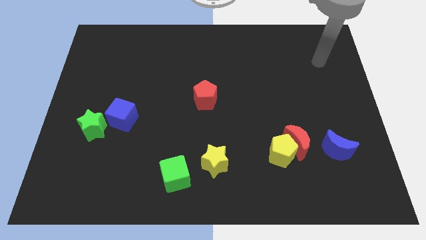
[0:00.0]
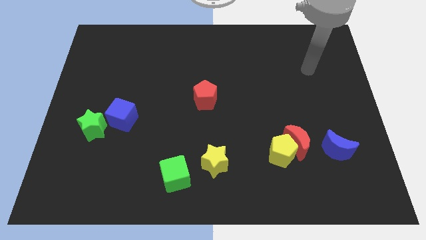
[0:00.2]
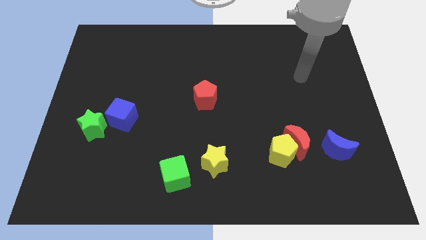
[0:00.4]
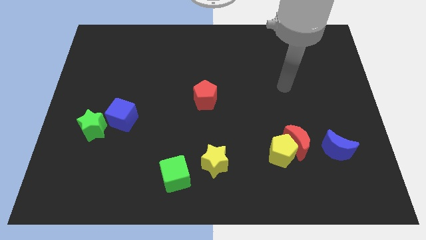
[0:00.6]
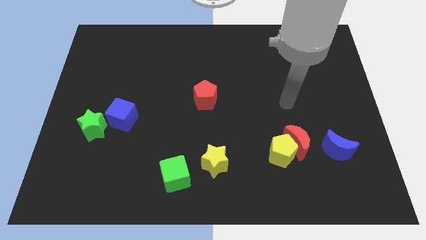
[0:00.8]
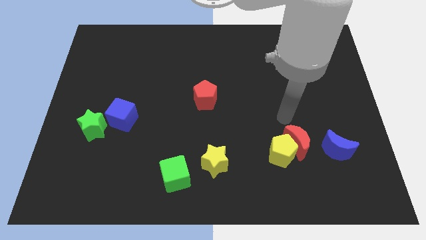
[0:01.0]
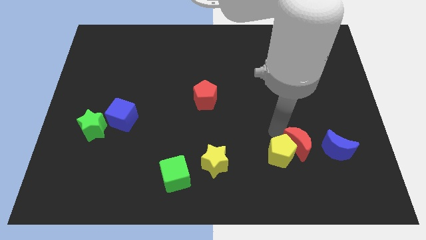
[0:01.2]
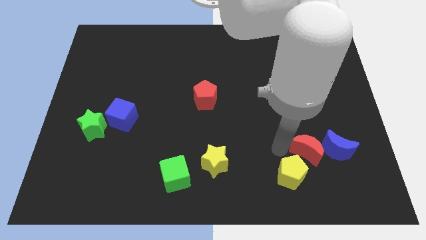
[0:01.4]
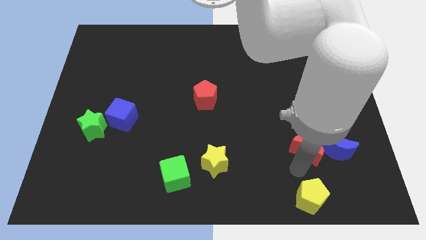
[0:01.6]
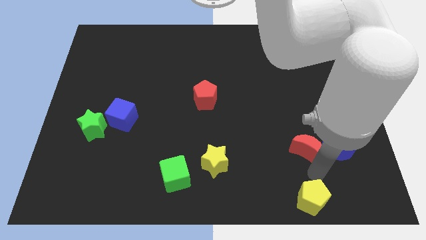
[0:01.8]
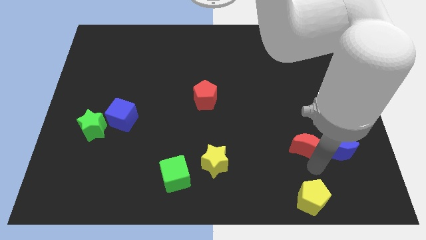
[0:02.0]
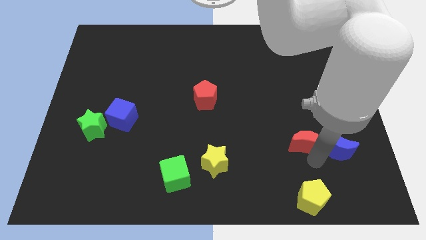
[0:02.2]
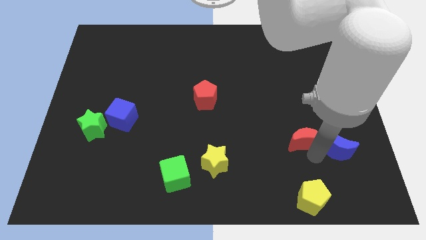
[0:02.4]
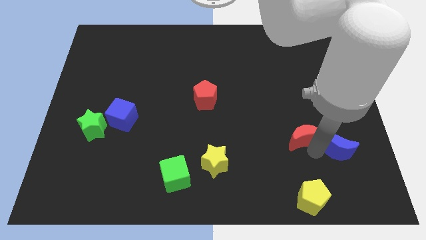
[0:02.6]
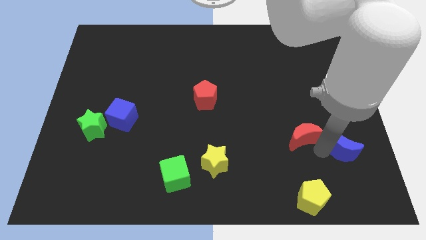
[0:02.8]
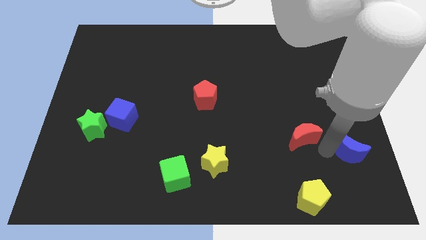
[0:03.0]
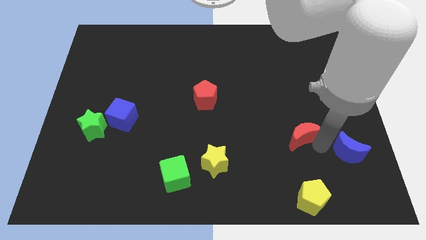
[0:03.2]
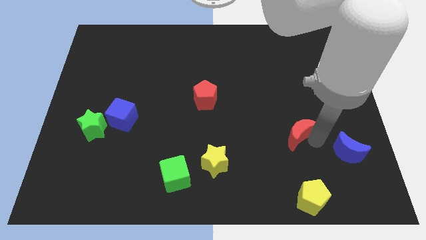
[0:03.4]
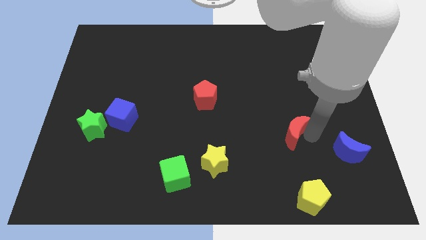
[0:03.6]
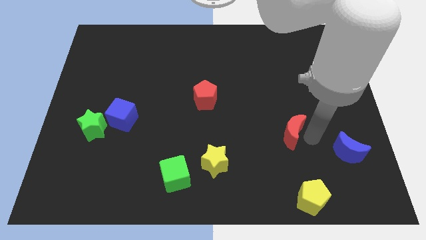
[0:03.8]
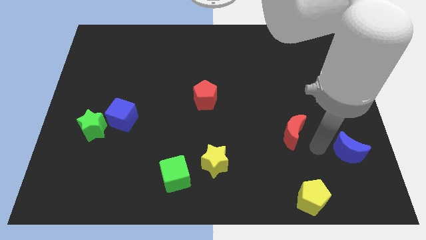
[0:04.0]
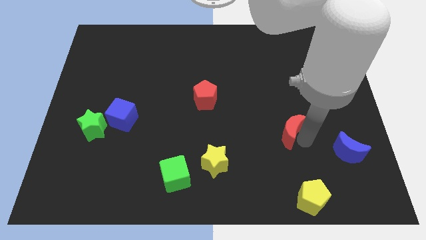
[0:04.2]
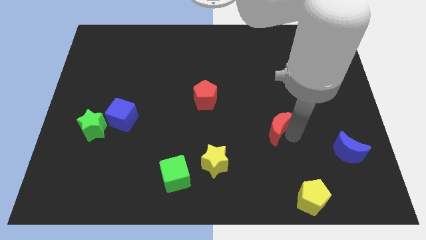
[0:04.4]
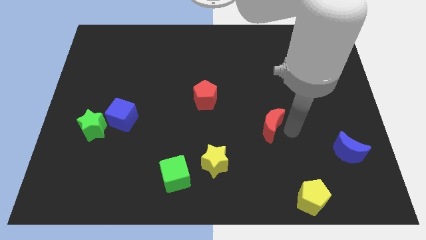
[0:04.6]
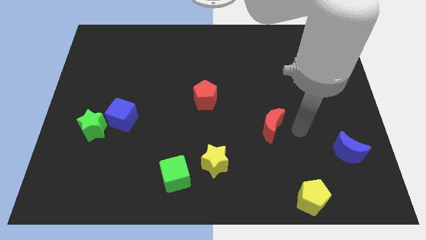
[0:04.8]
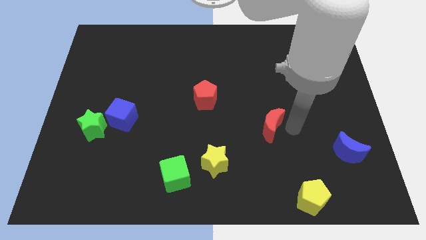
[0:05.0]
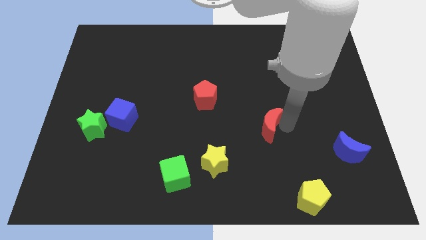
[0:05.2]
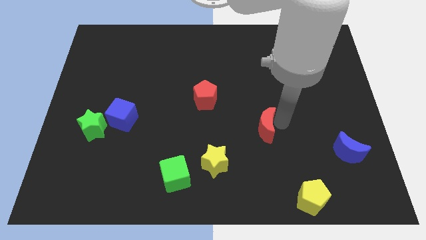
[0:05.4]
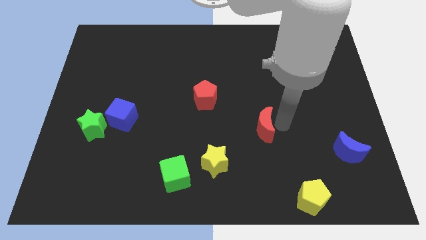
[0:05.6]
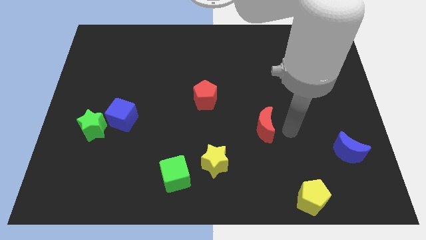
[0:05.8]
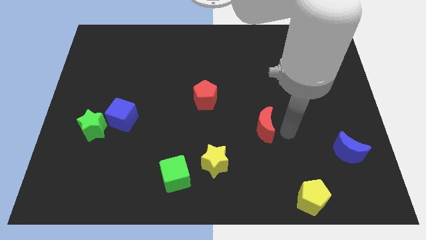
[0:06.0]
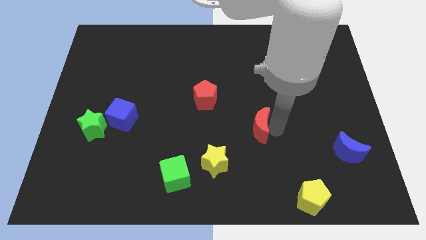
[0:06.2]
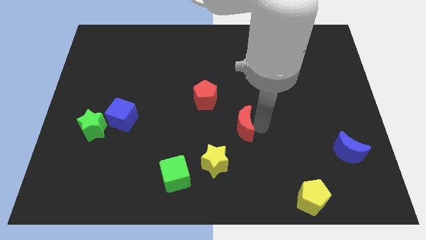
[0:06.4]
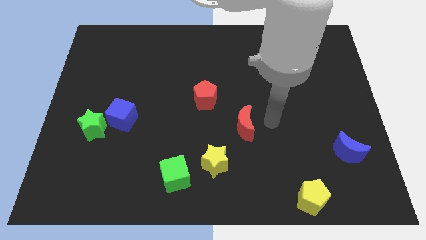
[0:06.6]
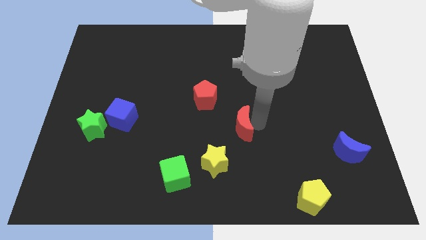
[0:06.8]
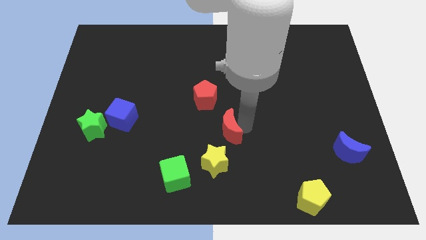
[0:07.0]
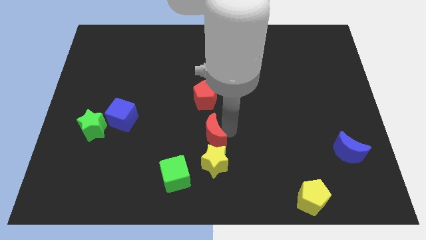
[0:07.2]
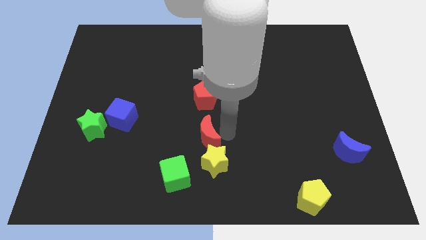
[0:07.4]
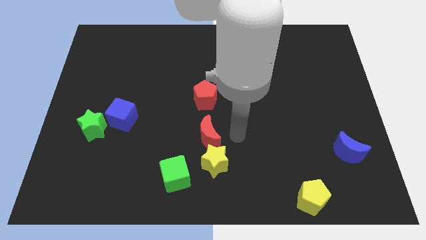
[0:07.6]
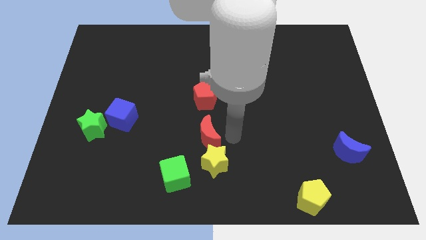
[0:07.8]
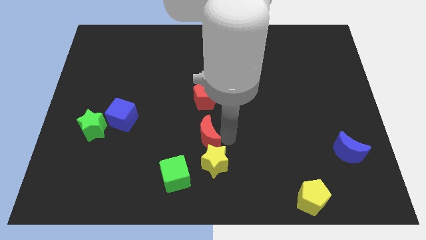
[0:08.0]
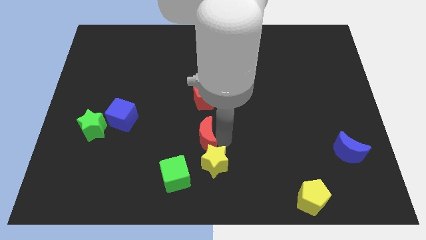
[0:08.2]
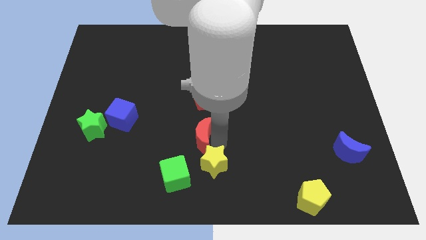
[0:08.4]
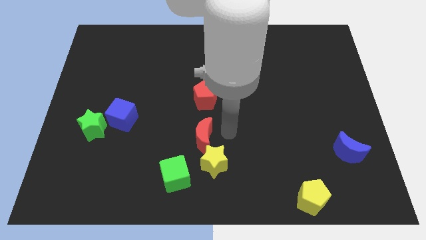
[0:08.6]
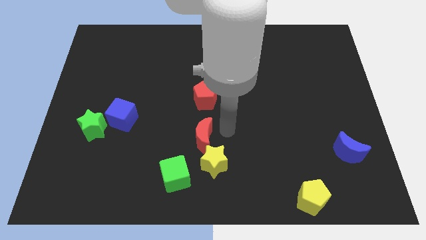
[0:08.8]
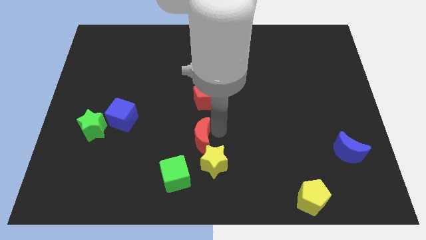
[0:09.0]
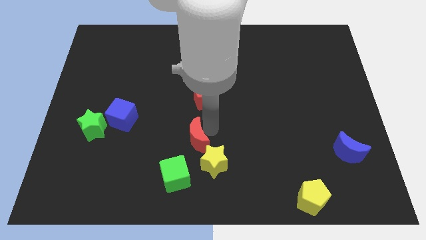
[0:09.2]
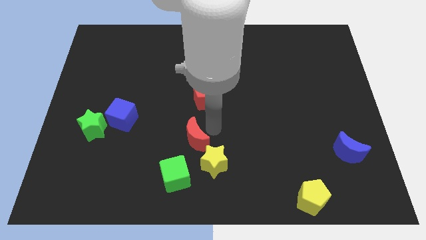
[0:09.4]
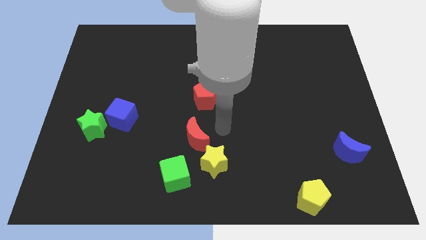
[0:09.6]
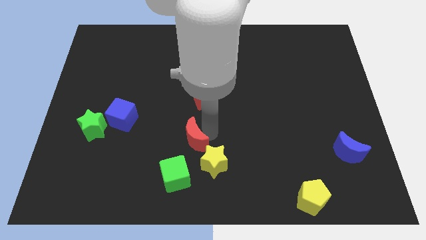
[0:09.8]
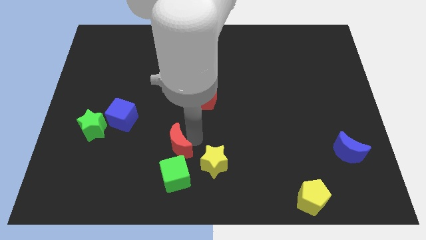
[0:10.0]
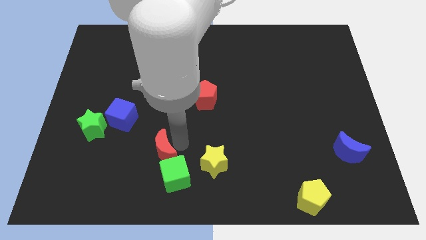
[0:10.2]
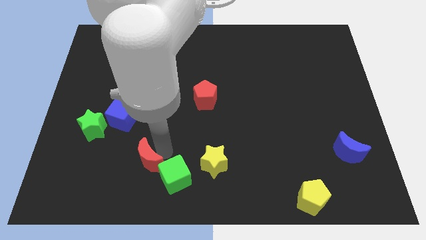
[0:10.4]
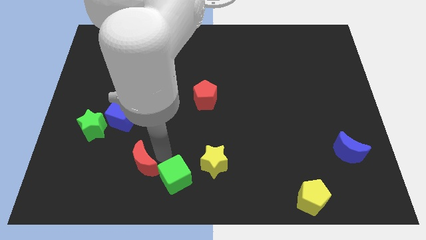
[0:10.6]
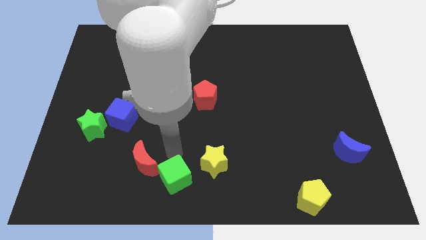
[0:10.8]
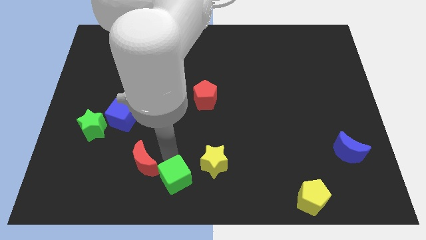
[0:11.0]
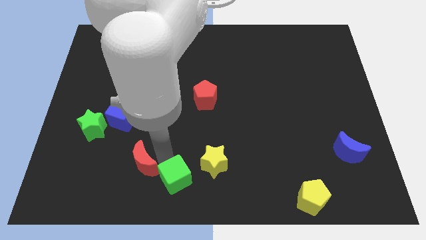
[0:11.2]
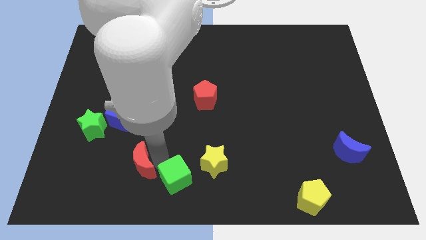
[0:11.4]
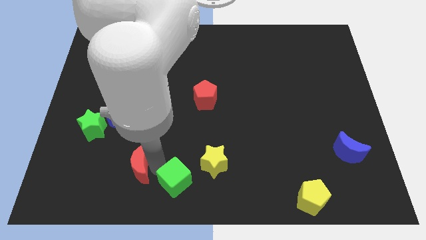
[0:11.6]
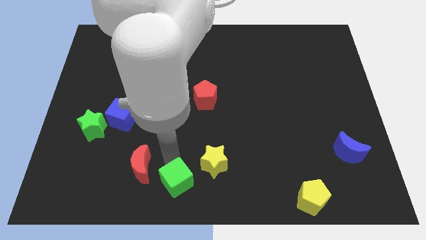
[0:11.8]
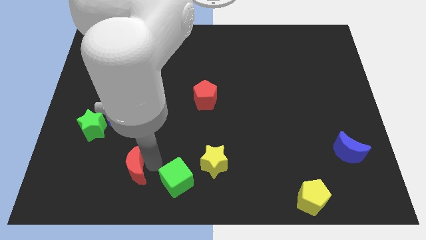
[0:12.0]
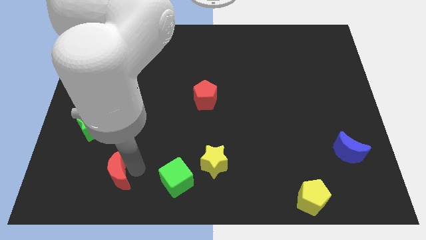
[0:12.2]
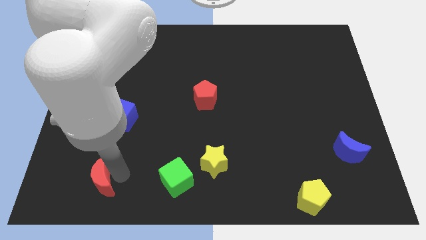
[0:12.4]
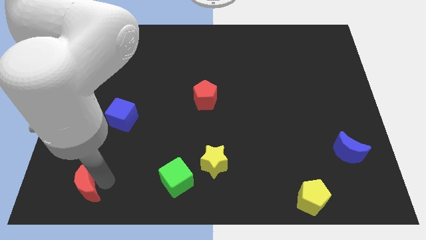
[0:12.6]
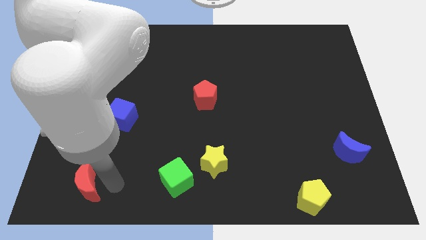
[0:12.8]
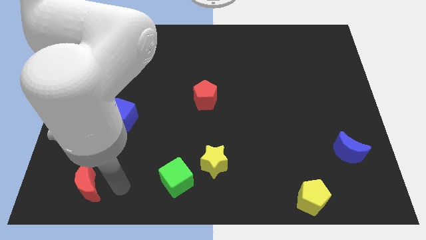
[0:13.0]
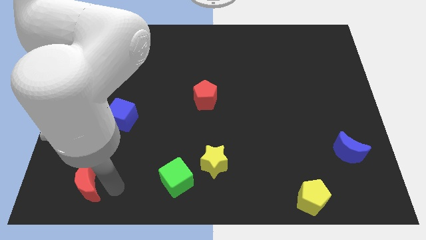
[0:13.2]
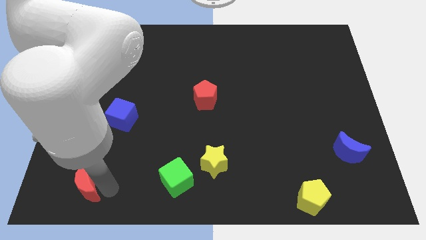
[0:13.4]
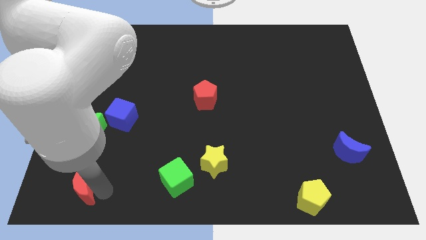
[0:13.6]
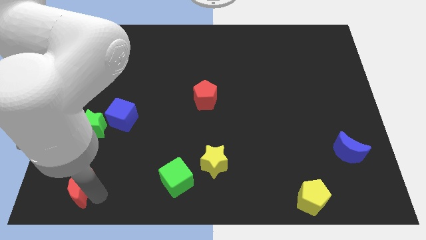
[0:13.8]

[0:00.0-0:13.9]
slide the red moon to the bottom left of the board

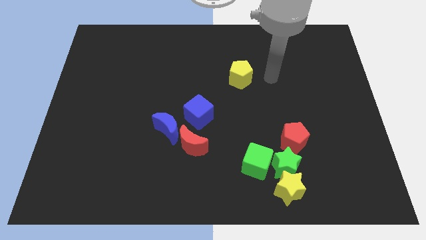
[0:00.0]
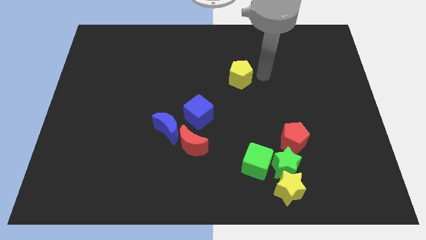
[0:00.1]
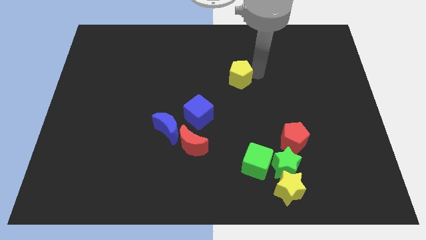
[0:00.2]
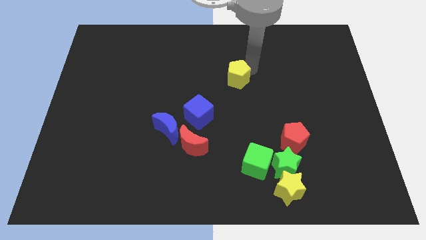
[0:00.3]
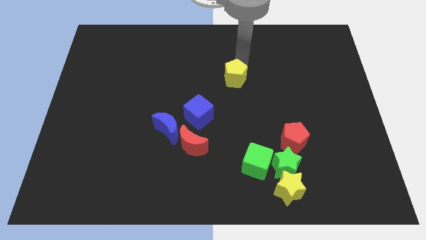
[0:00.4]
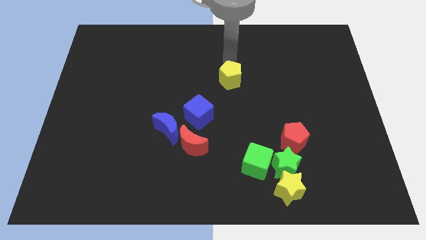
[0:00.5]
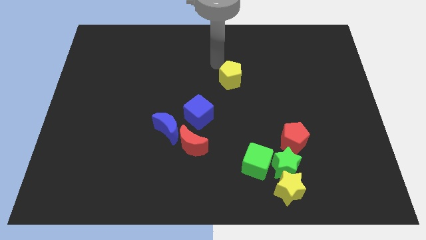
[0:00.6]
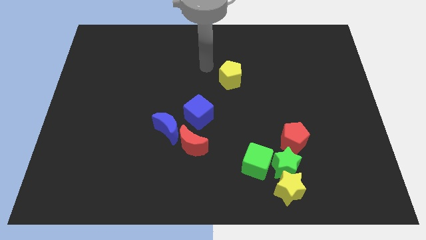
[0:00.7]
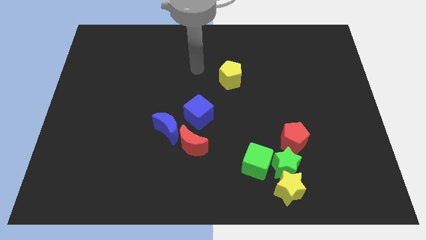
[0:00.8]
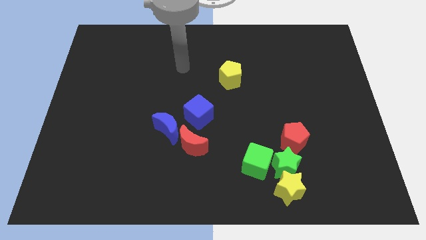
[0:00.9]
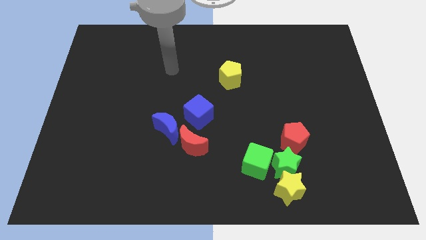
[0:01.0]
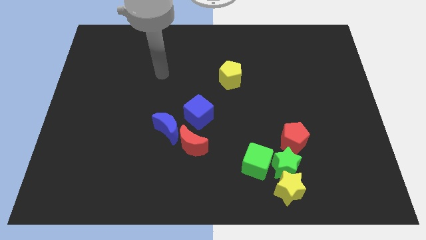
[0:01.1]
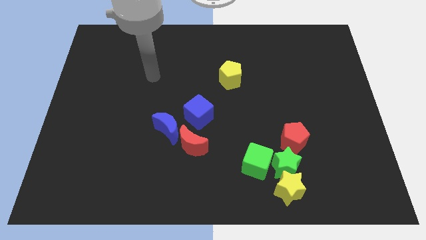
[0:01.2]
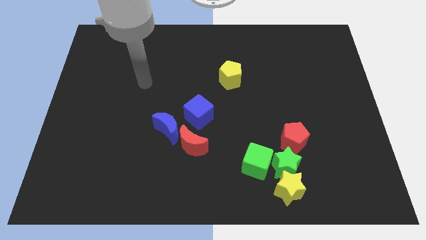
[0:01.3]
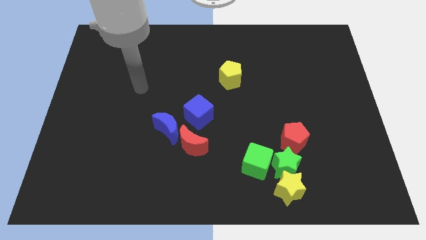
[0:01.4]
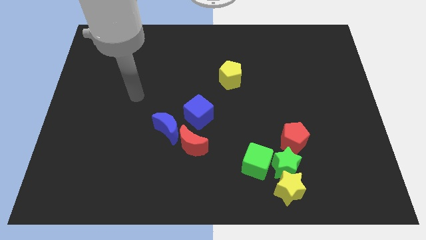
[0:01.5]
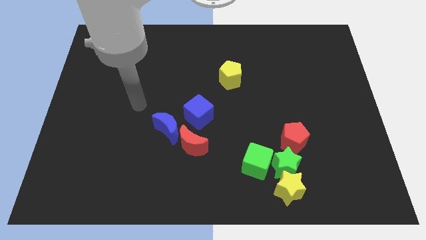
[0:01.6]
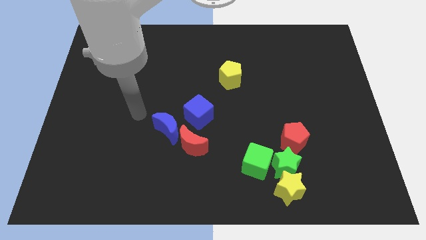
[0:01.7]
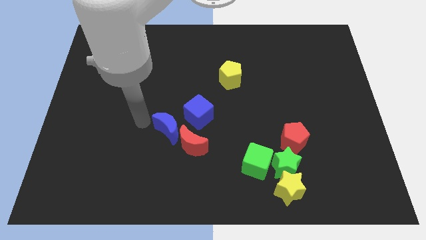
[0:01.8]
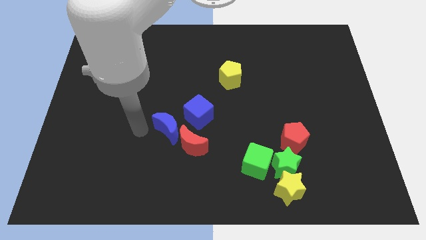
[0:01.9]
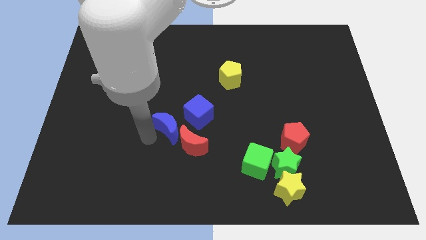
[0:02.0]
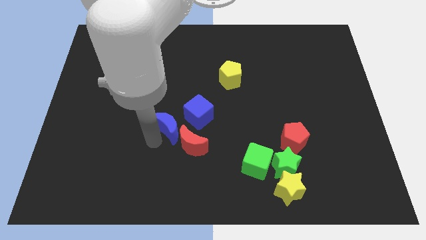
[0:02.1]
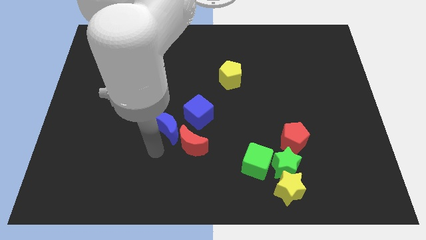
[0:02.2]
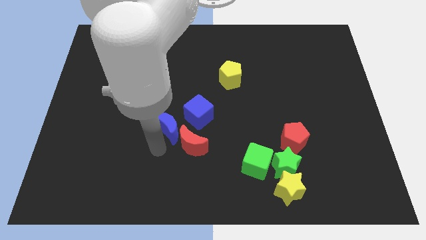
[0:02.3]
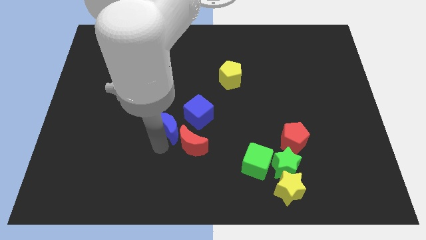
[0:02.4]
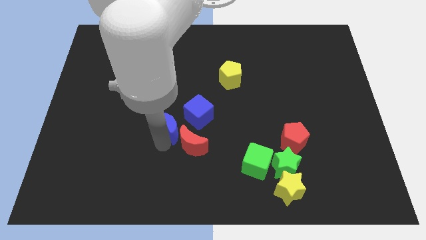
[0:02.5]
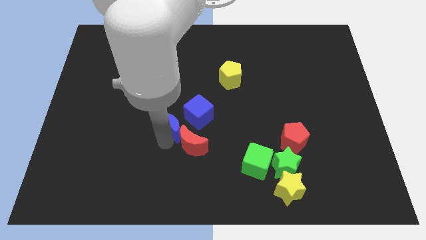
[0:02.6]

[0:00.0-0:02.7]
move the blue moon to the middle
